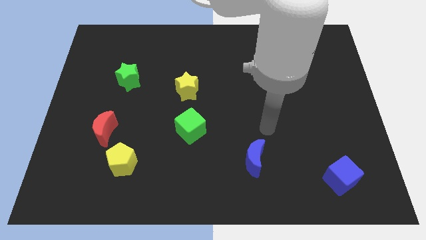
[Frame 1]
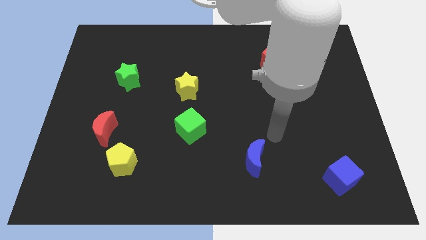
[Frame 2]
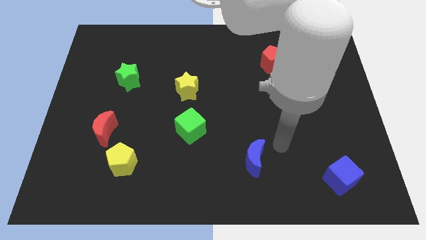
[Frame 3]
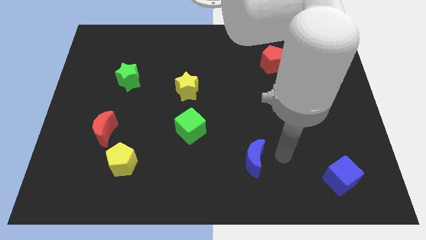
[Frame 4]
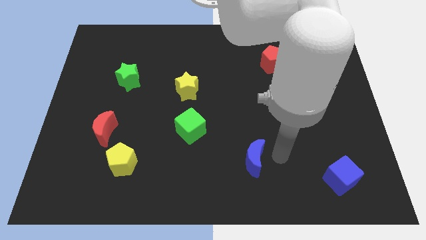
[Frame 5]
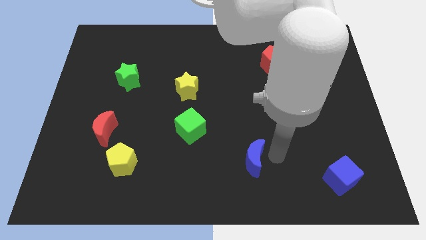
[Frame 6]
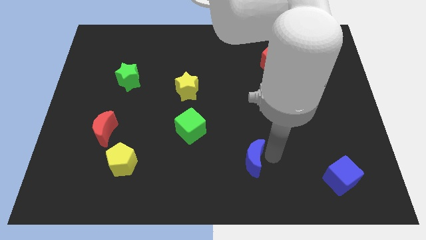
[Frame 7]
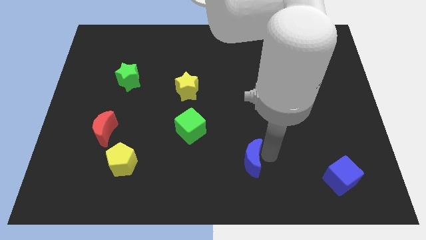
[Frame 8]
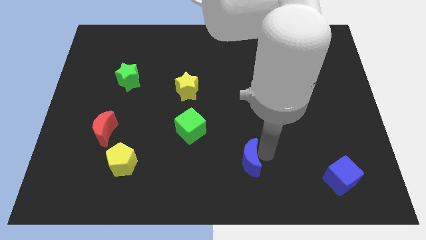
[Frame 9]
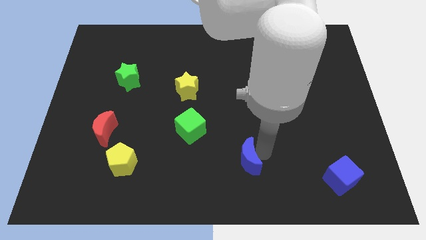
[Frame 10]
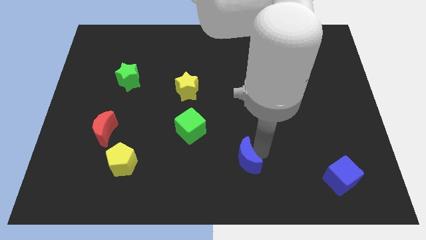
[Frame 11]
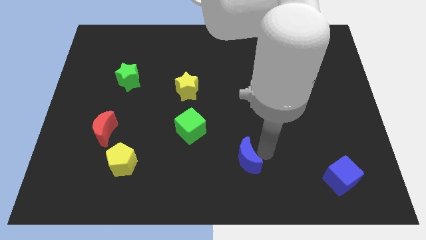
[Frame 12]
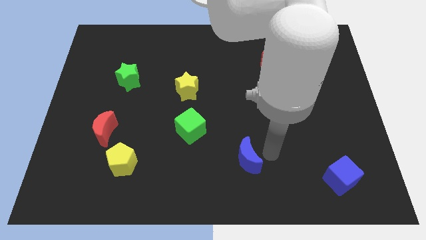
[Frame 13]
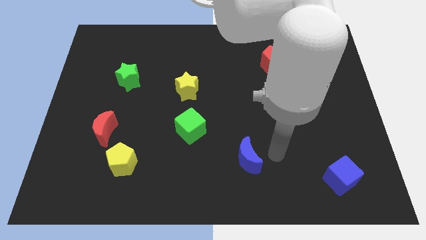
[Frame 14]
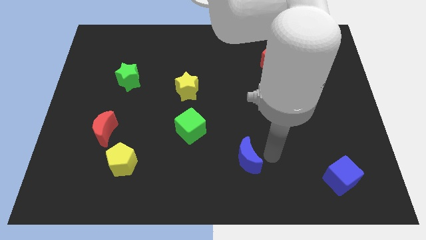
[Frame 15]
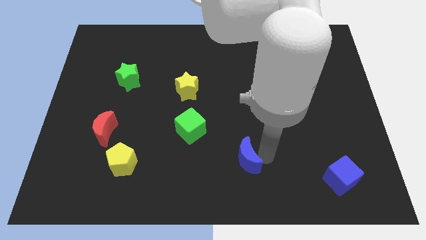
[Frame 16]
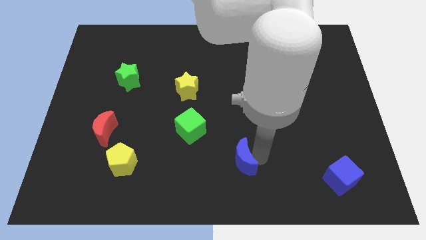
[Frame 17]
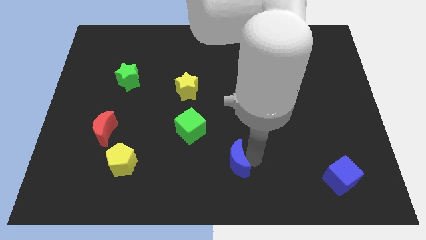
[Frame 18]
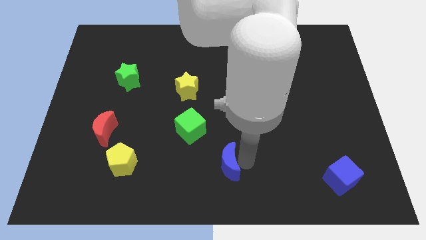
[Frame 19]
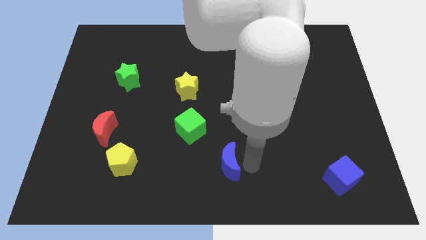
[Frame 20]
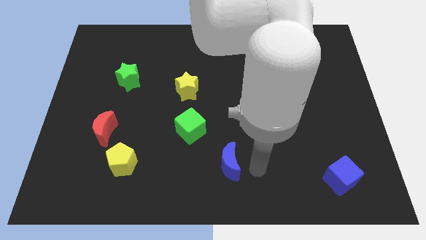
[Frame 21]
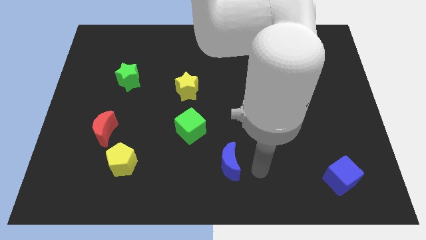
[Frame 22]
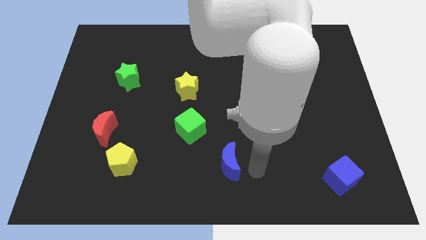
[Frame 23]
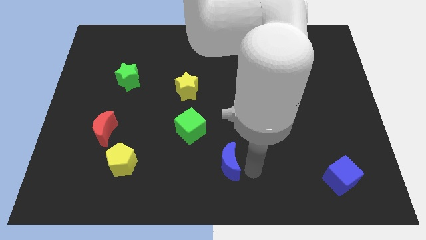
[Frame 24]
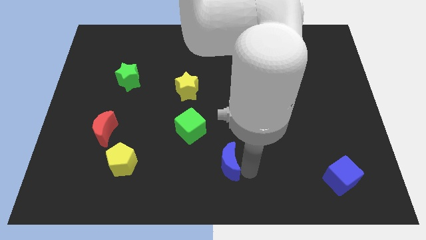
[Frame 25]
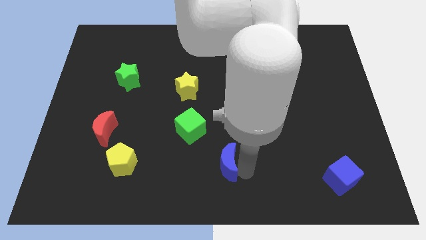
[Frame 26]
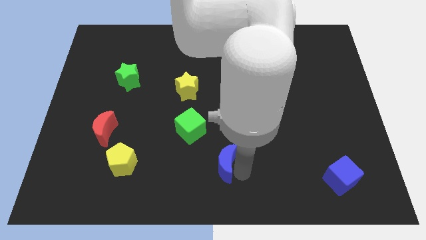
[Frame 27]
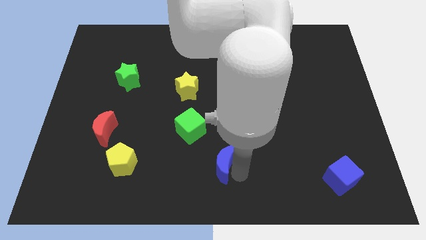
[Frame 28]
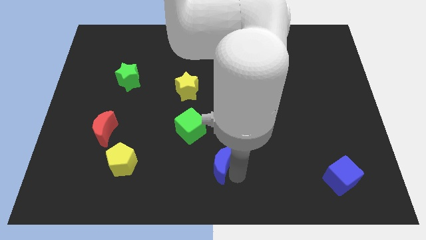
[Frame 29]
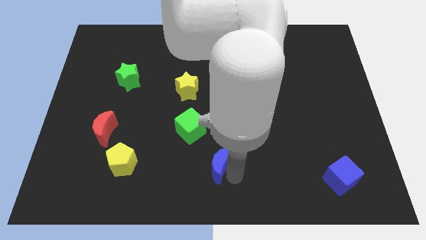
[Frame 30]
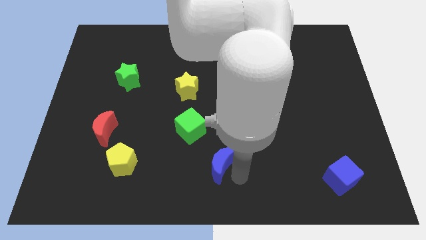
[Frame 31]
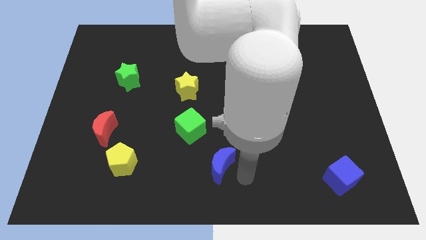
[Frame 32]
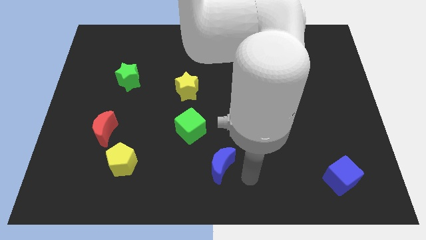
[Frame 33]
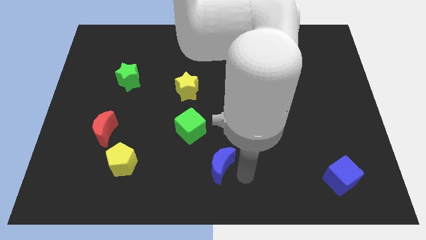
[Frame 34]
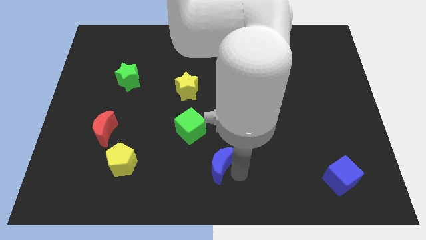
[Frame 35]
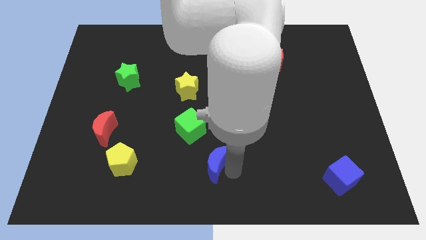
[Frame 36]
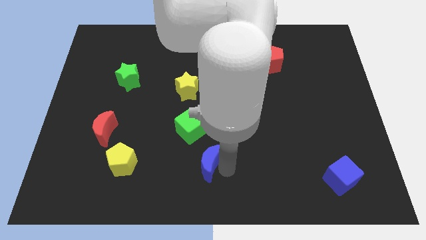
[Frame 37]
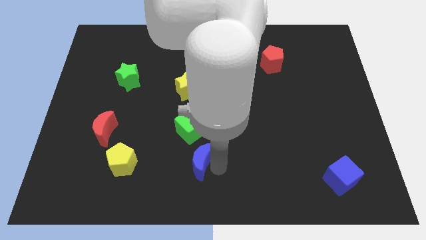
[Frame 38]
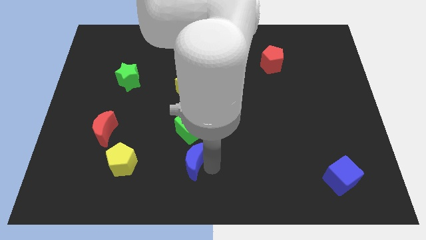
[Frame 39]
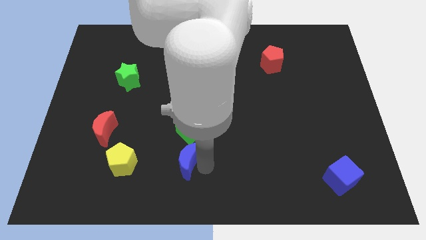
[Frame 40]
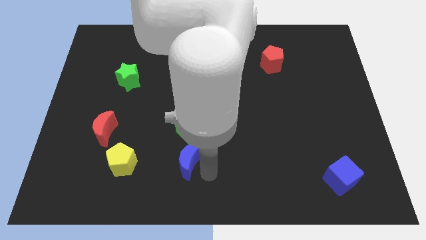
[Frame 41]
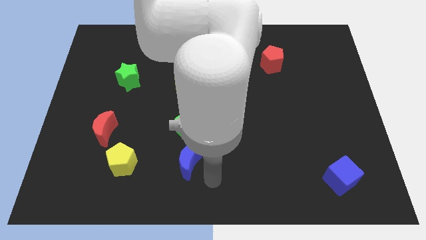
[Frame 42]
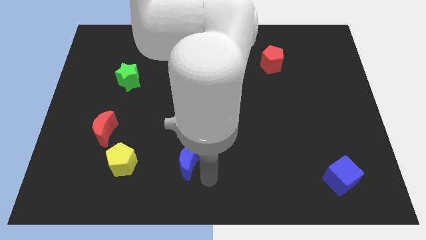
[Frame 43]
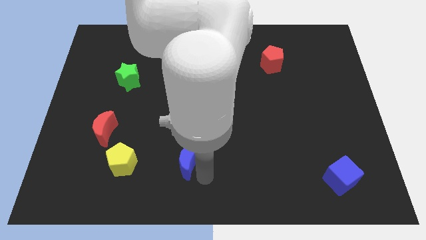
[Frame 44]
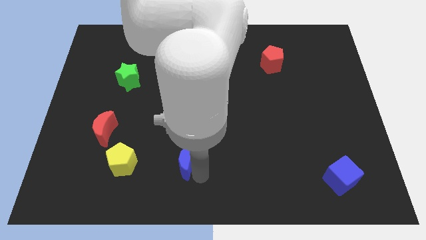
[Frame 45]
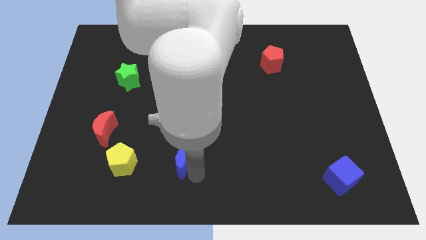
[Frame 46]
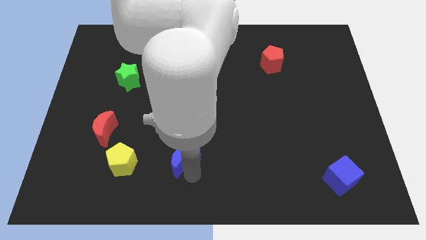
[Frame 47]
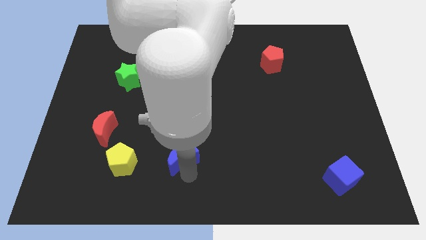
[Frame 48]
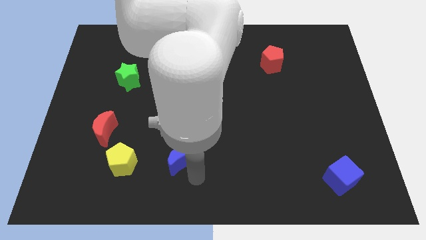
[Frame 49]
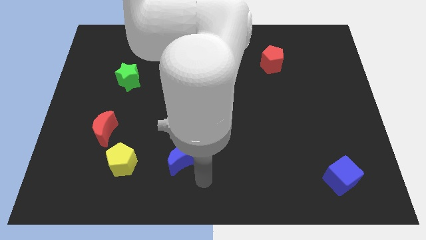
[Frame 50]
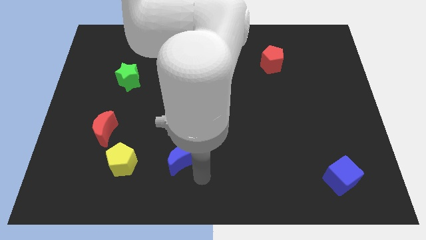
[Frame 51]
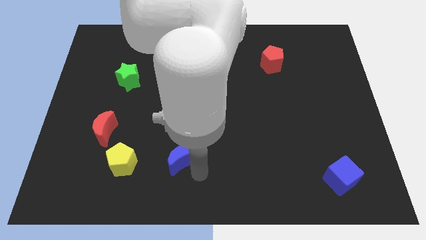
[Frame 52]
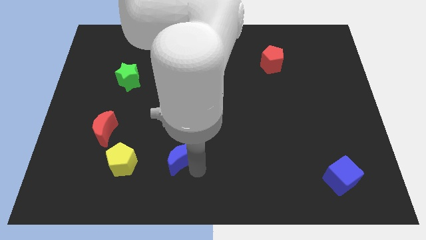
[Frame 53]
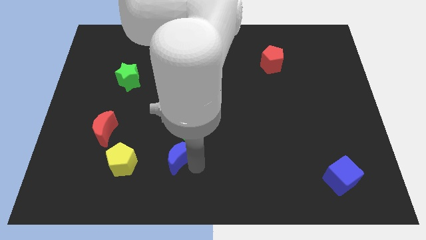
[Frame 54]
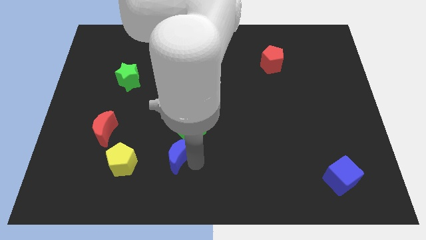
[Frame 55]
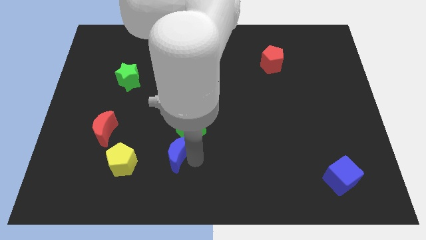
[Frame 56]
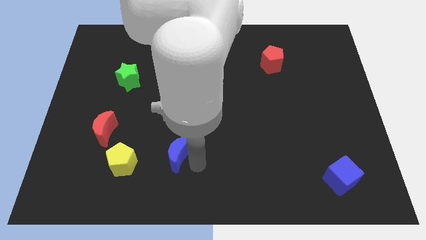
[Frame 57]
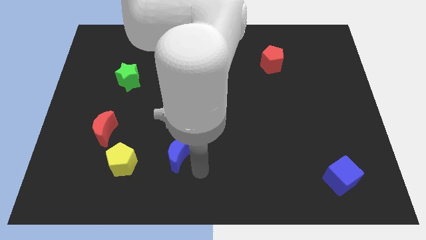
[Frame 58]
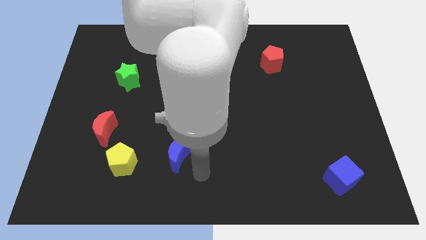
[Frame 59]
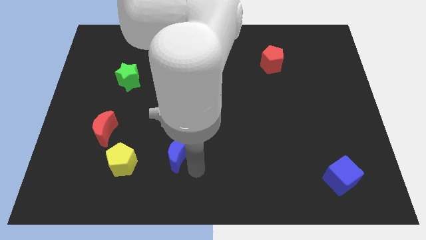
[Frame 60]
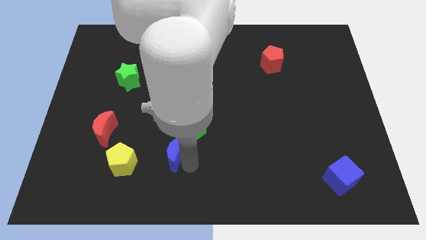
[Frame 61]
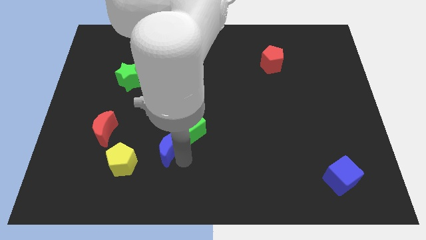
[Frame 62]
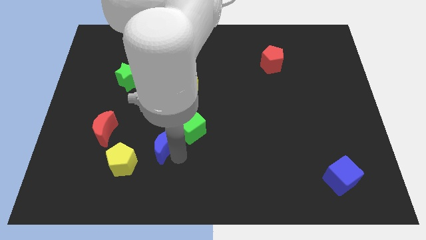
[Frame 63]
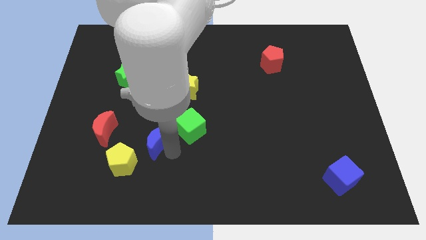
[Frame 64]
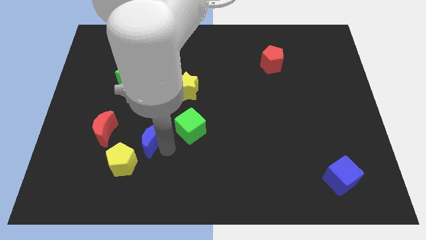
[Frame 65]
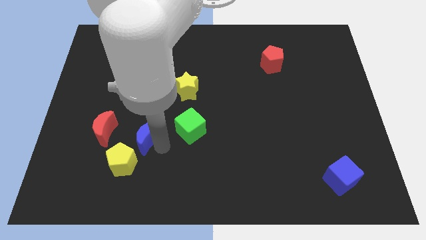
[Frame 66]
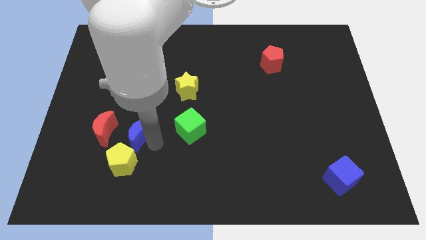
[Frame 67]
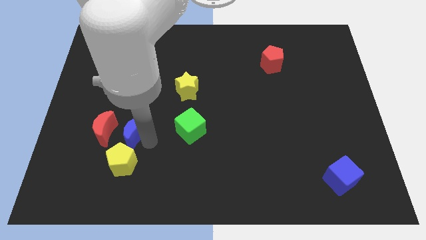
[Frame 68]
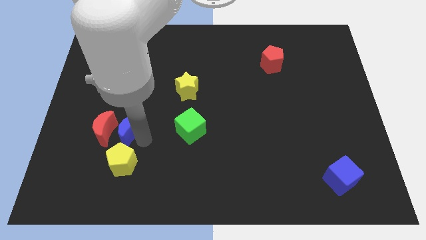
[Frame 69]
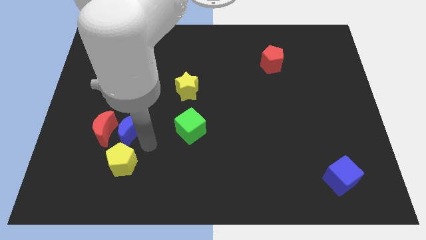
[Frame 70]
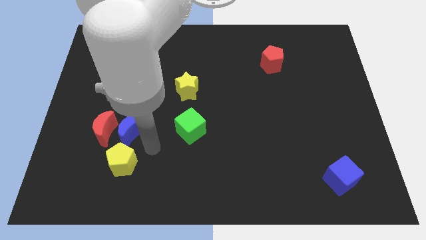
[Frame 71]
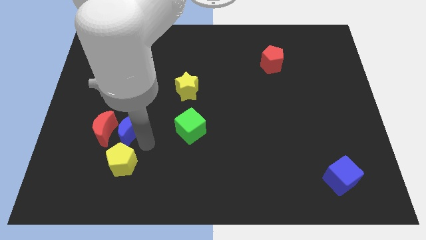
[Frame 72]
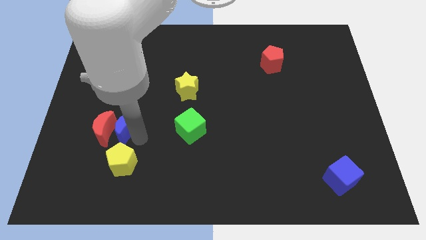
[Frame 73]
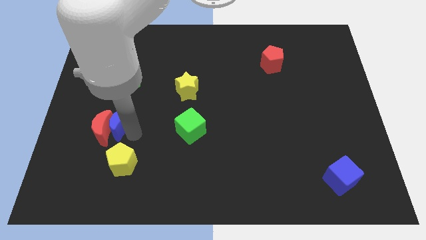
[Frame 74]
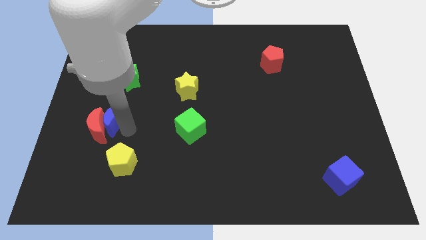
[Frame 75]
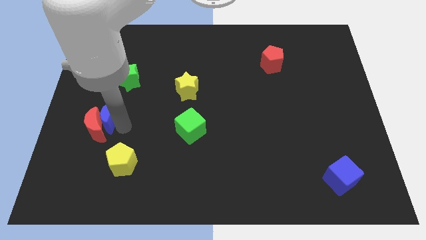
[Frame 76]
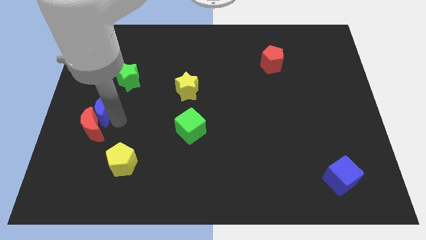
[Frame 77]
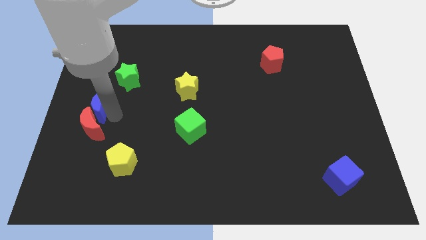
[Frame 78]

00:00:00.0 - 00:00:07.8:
move the blue moon to the left side of the board
